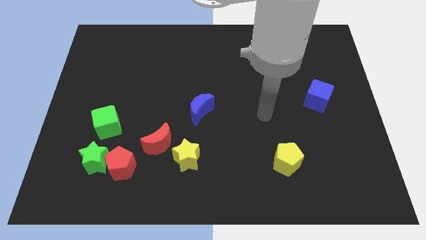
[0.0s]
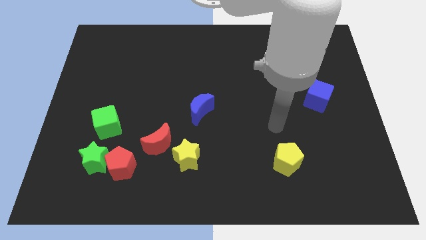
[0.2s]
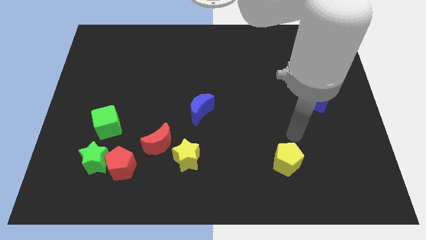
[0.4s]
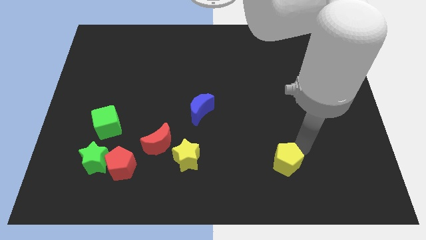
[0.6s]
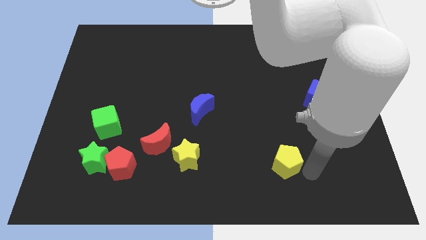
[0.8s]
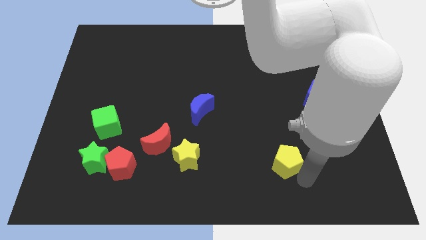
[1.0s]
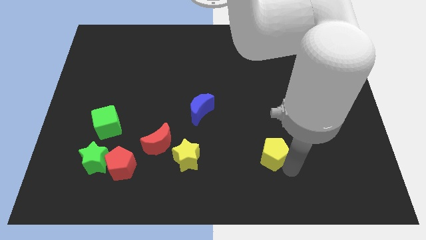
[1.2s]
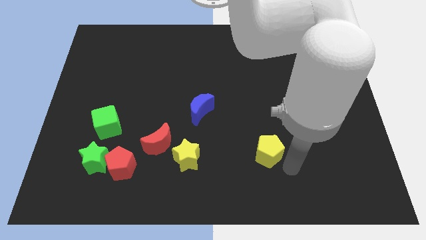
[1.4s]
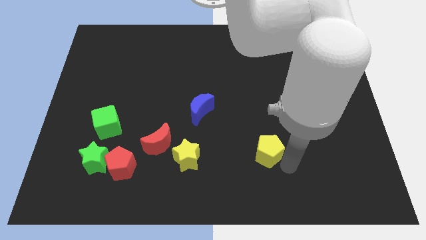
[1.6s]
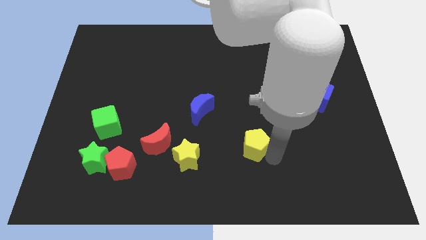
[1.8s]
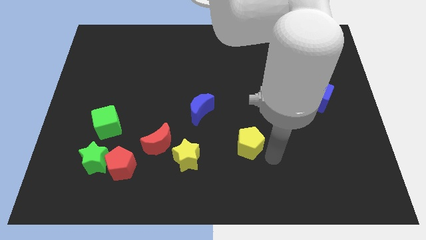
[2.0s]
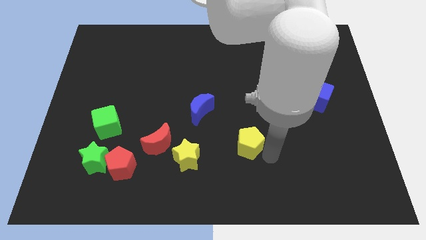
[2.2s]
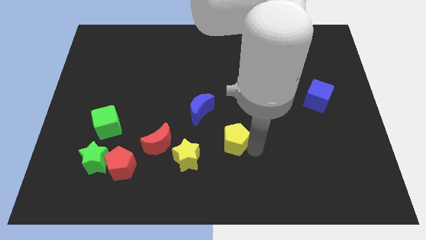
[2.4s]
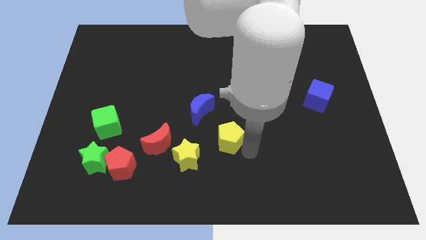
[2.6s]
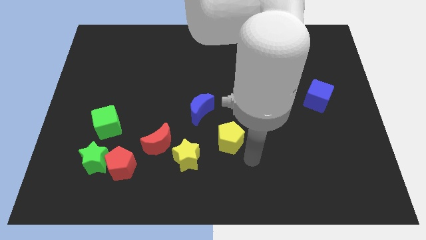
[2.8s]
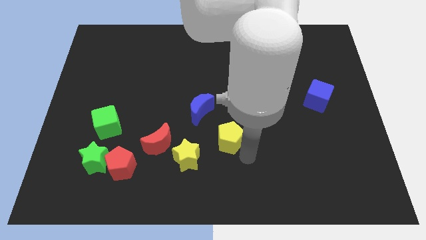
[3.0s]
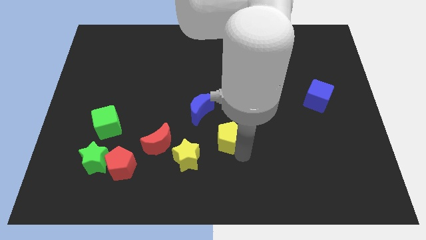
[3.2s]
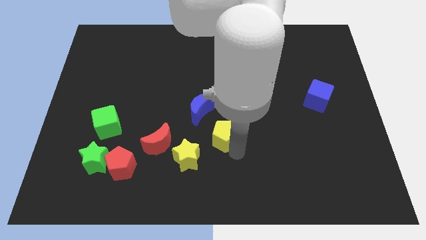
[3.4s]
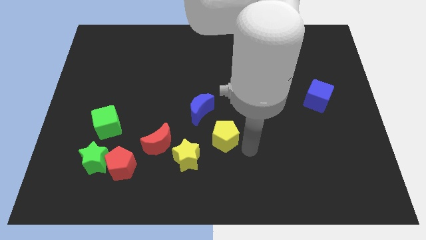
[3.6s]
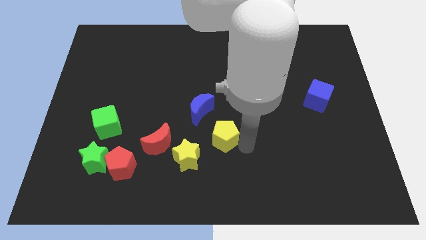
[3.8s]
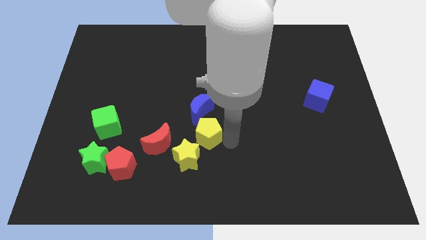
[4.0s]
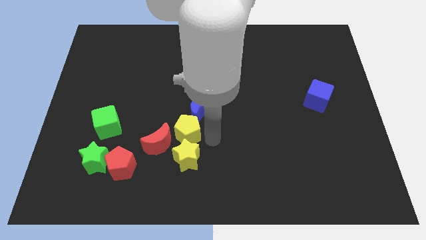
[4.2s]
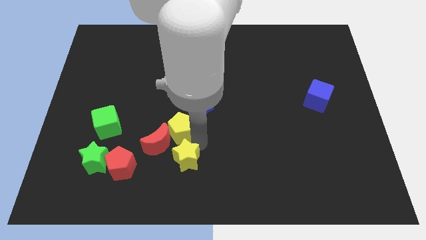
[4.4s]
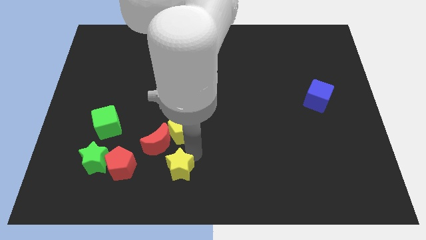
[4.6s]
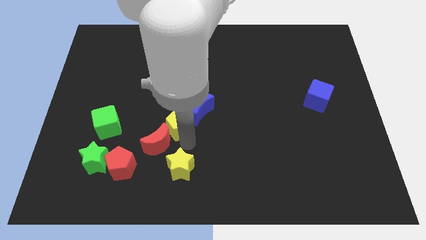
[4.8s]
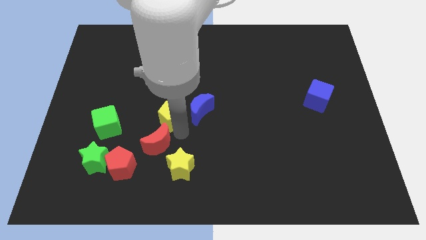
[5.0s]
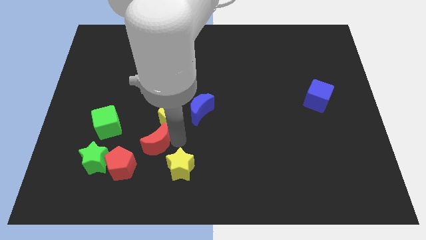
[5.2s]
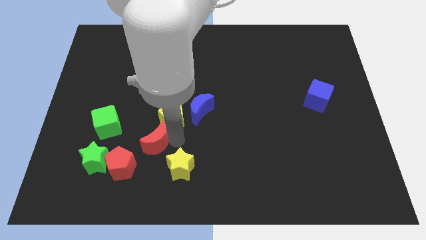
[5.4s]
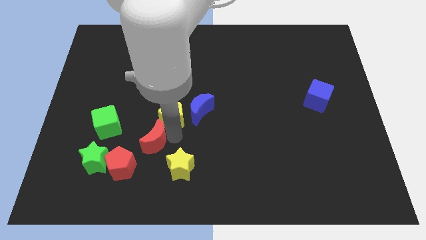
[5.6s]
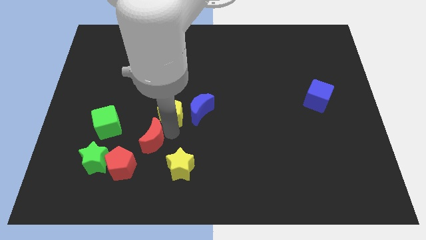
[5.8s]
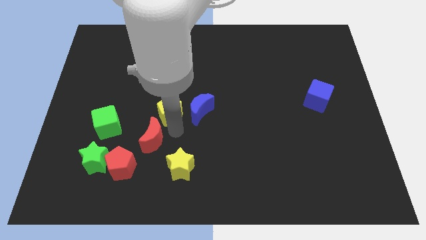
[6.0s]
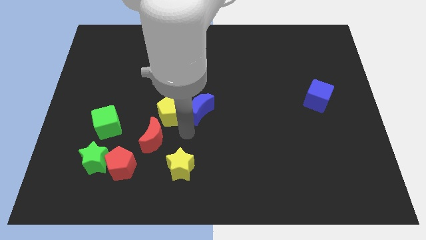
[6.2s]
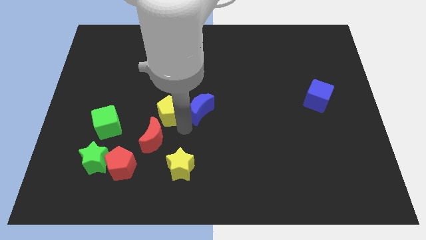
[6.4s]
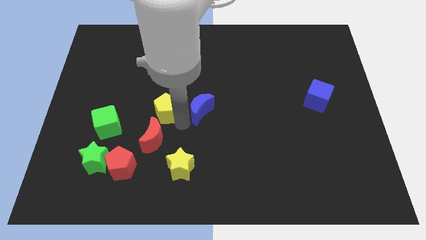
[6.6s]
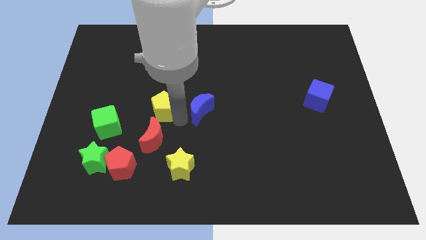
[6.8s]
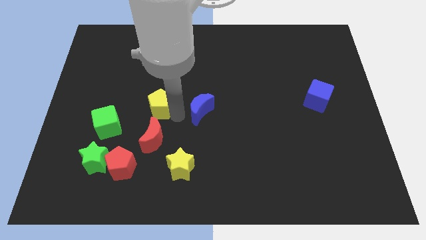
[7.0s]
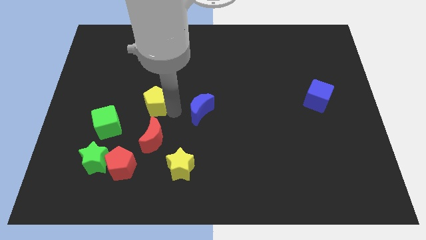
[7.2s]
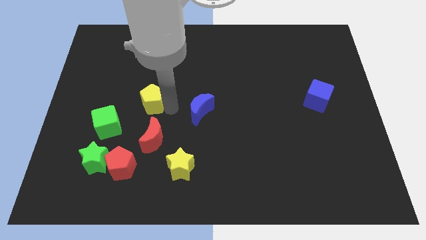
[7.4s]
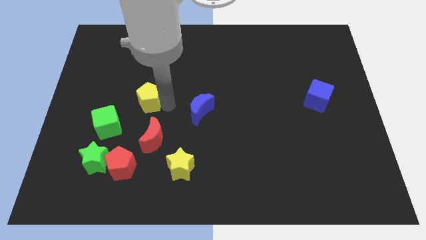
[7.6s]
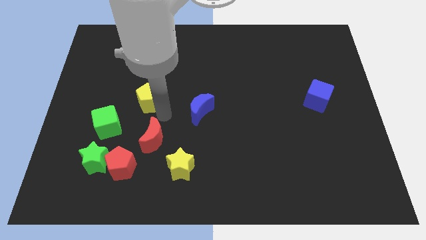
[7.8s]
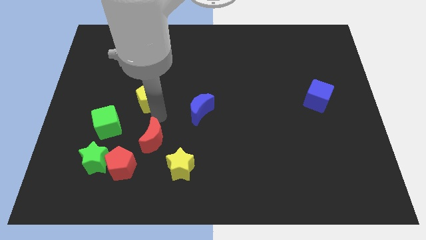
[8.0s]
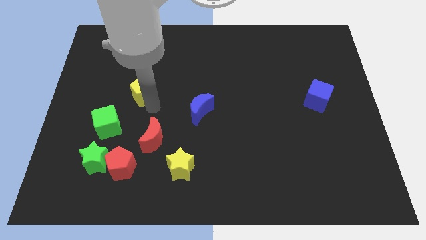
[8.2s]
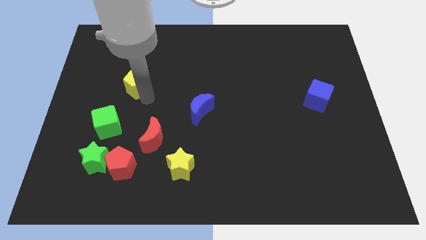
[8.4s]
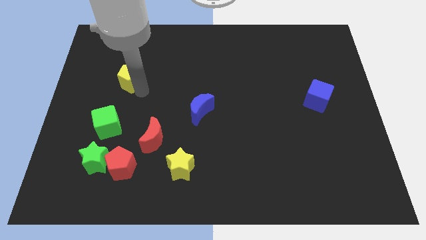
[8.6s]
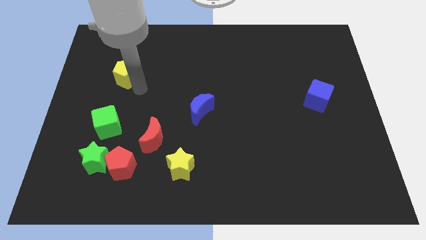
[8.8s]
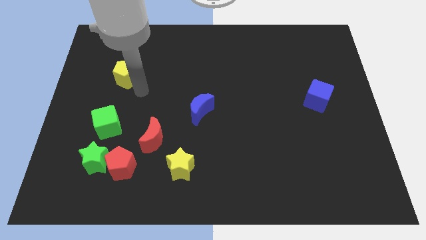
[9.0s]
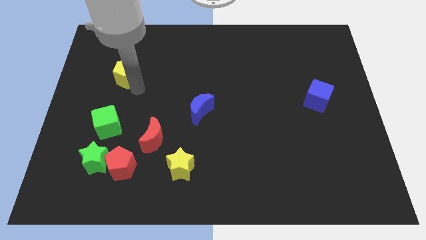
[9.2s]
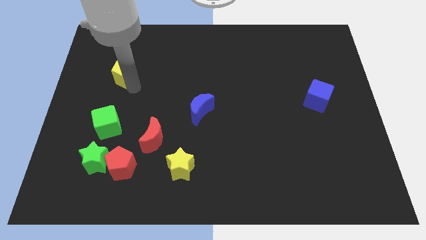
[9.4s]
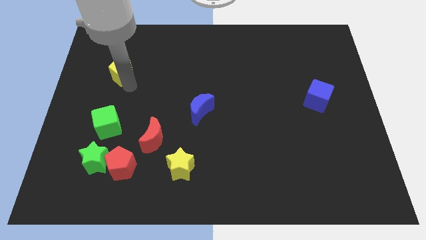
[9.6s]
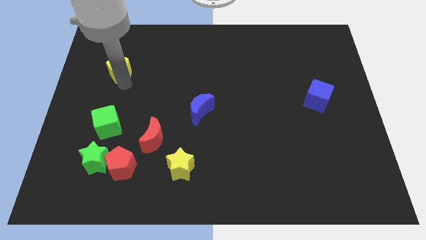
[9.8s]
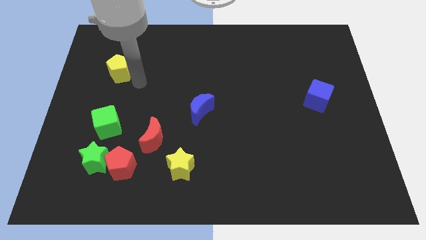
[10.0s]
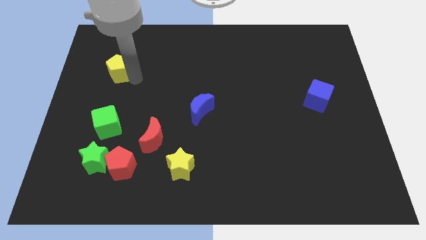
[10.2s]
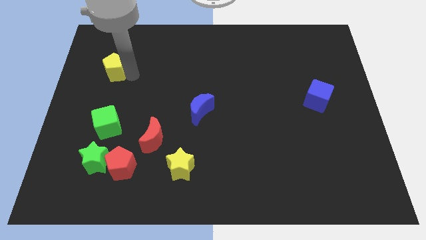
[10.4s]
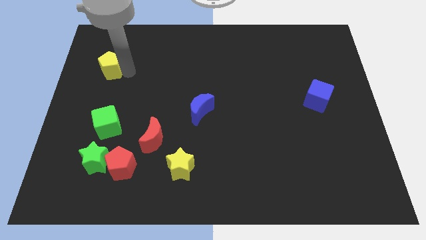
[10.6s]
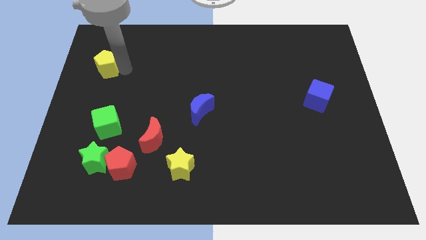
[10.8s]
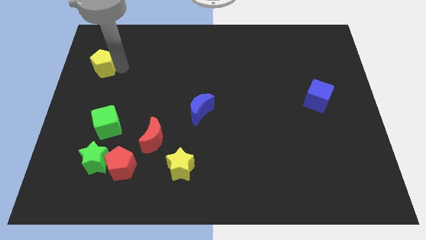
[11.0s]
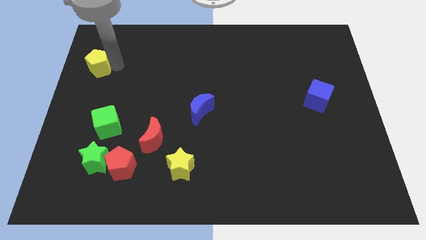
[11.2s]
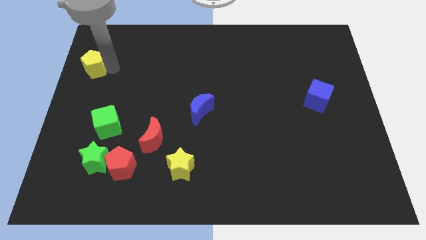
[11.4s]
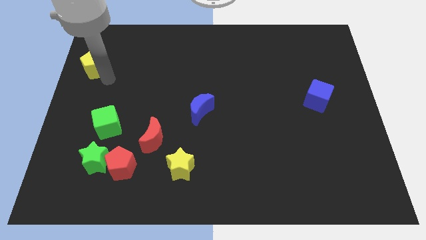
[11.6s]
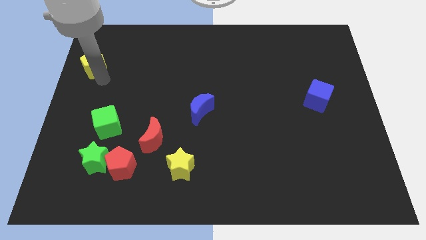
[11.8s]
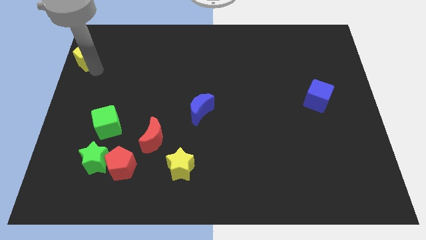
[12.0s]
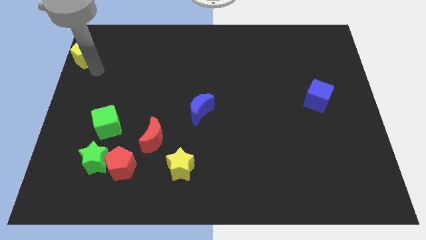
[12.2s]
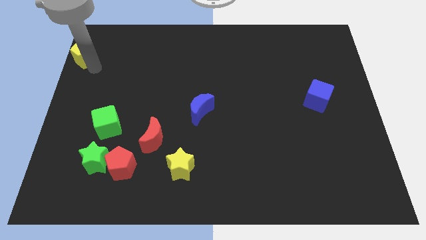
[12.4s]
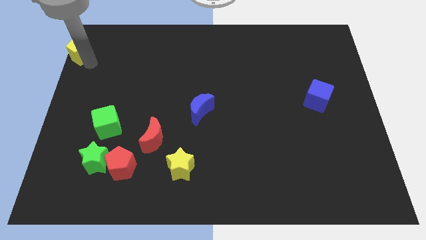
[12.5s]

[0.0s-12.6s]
put the yellow pentagon to the top left of the board

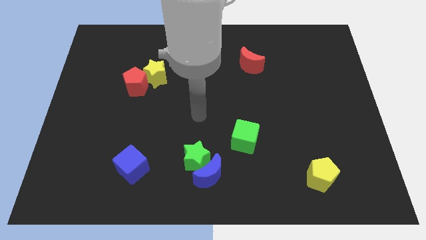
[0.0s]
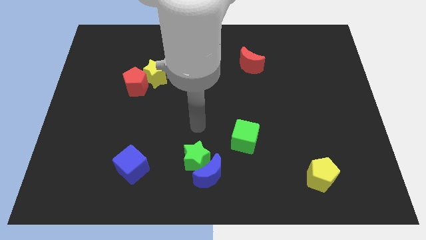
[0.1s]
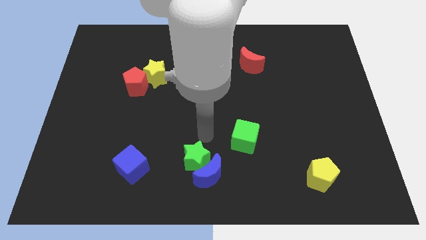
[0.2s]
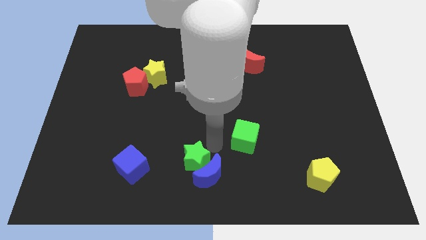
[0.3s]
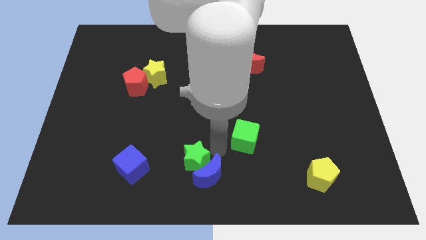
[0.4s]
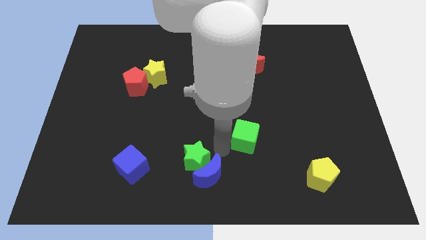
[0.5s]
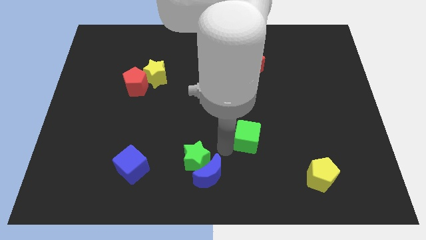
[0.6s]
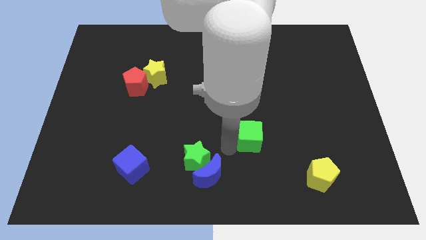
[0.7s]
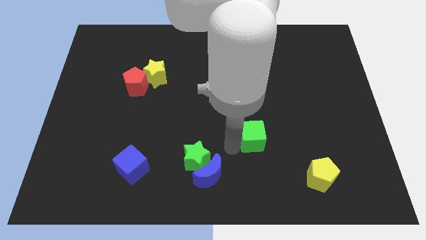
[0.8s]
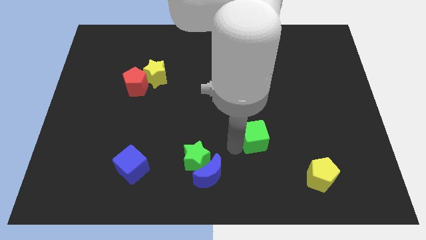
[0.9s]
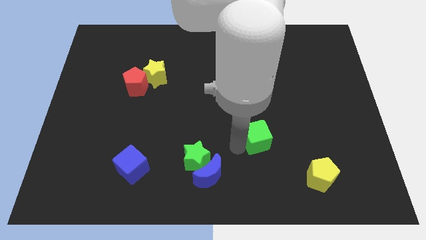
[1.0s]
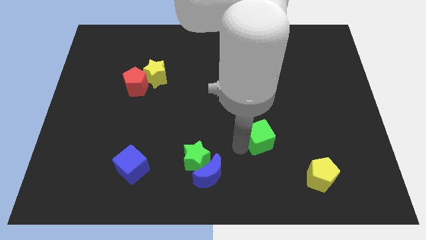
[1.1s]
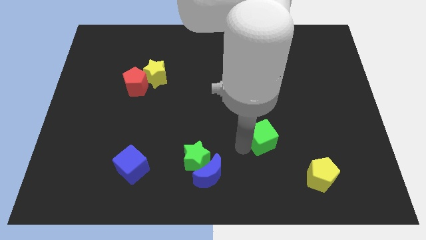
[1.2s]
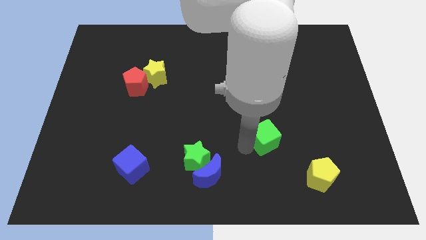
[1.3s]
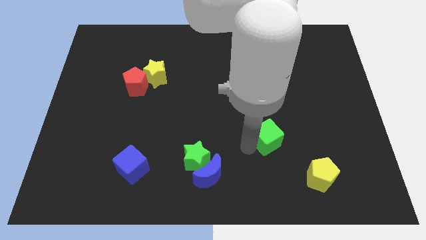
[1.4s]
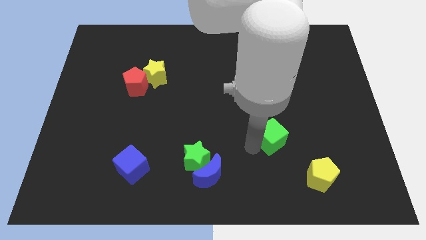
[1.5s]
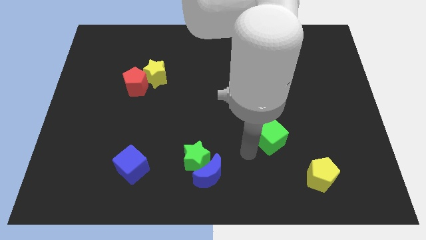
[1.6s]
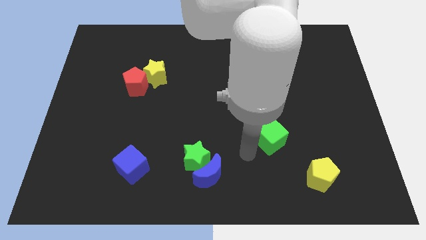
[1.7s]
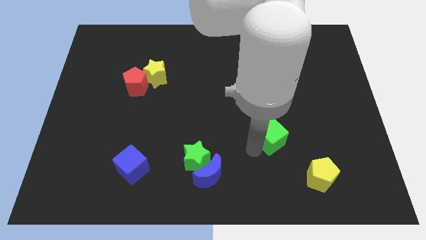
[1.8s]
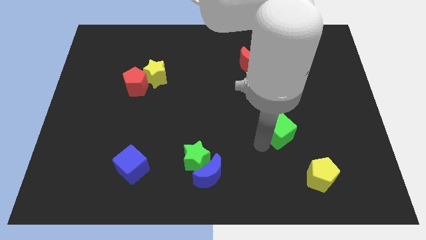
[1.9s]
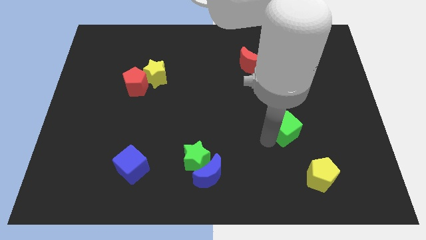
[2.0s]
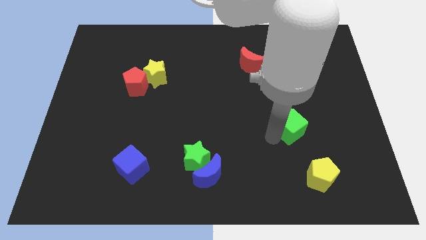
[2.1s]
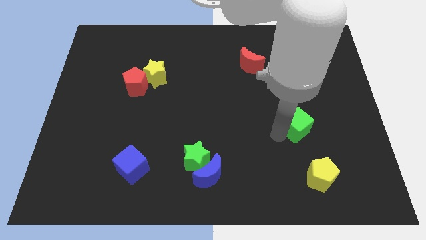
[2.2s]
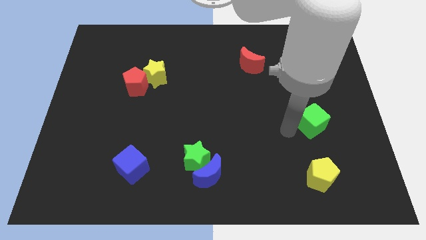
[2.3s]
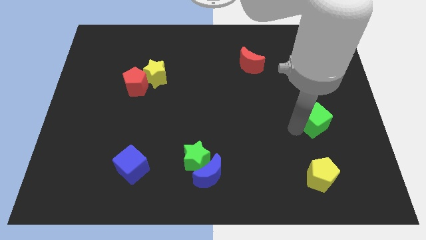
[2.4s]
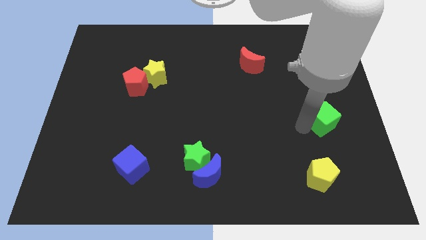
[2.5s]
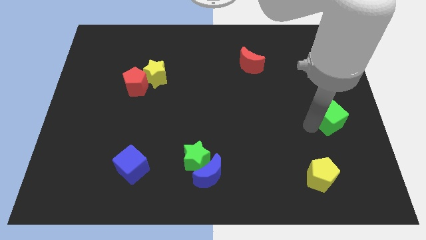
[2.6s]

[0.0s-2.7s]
slide the green cube to the right side of the board
